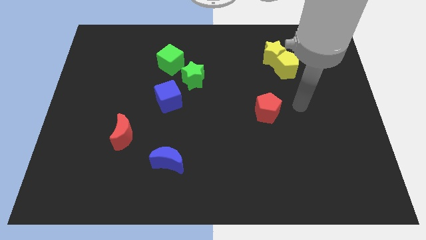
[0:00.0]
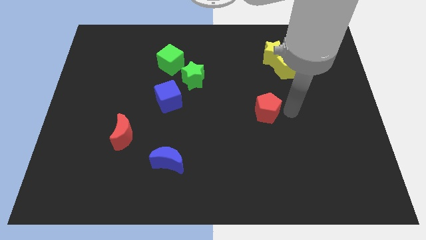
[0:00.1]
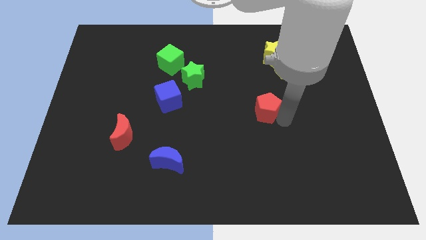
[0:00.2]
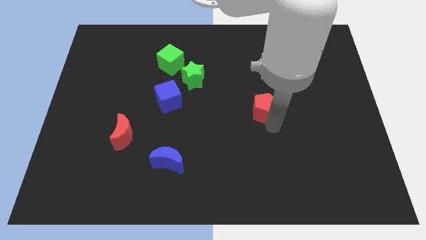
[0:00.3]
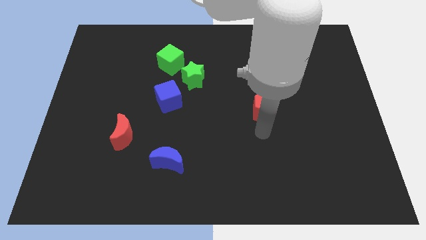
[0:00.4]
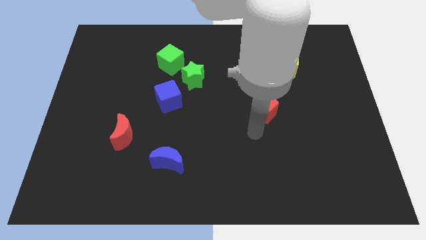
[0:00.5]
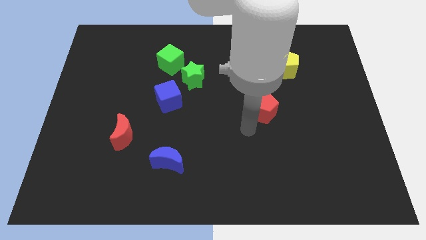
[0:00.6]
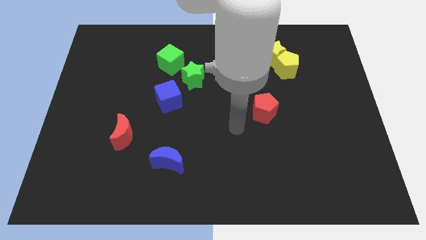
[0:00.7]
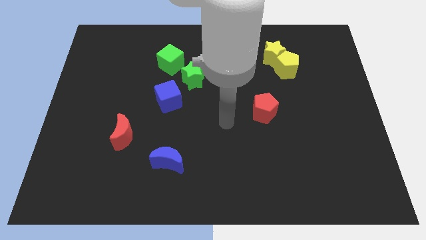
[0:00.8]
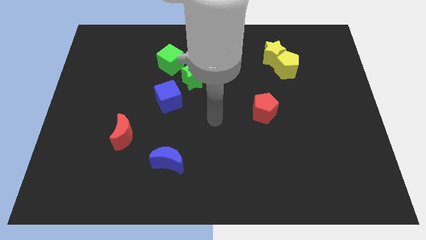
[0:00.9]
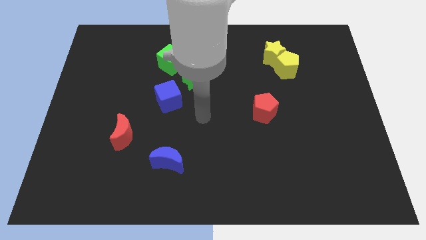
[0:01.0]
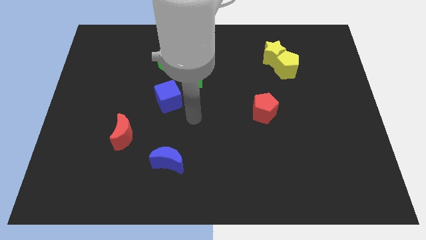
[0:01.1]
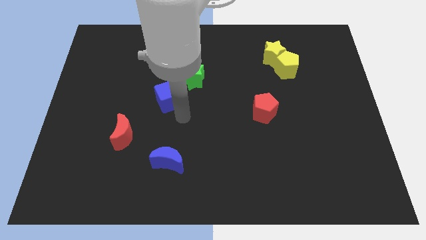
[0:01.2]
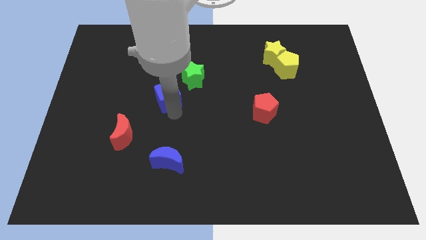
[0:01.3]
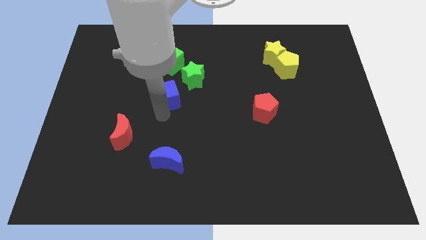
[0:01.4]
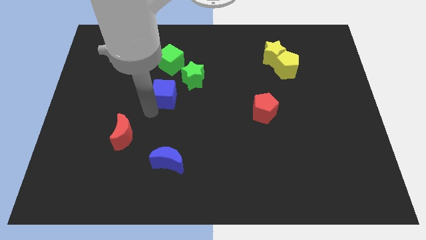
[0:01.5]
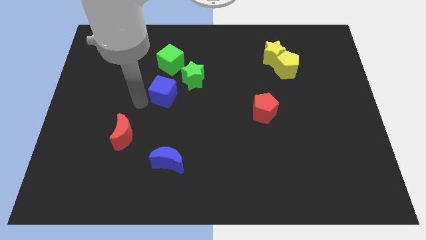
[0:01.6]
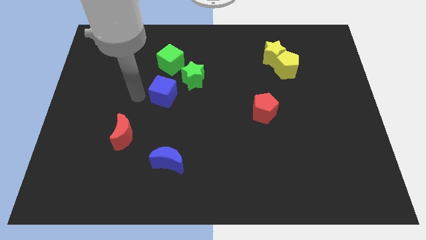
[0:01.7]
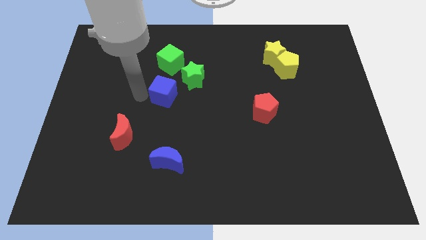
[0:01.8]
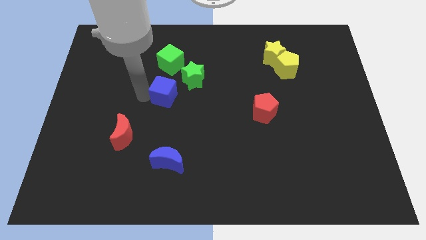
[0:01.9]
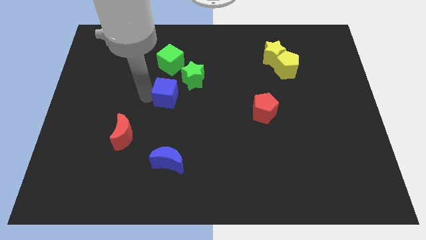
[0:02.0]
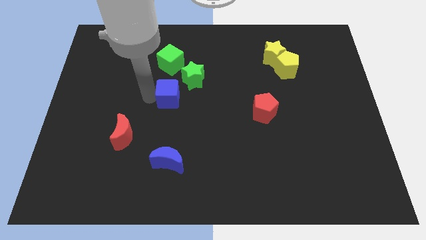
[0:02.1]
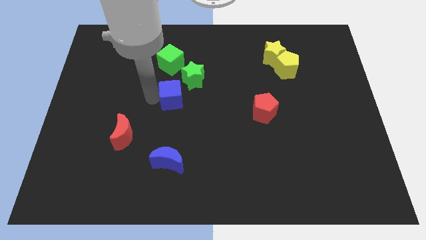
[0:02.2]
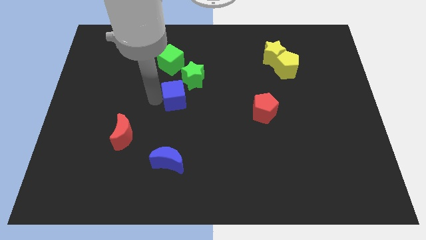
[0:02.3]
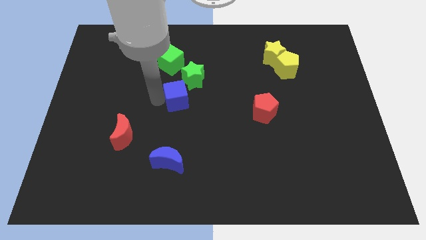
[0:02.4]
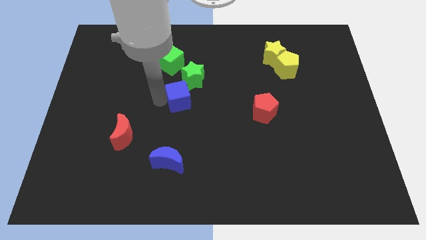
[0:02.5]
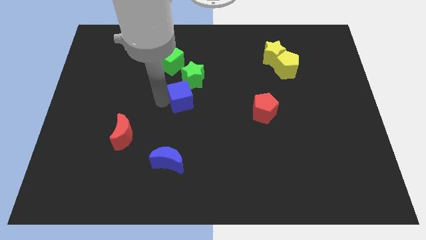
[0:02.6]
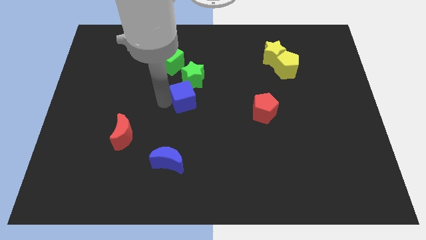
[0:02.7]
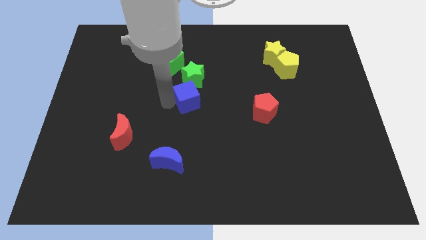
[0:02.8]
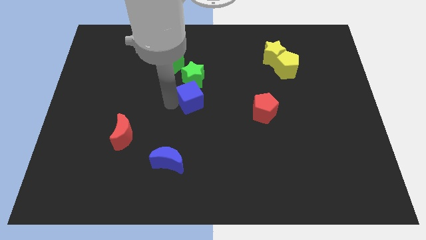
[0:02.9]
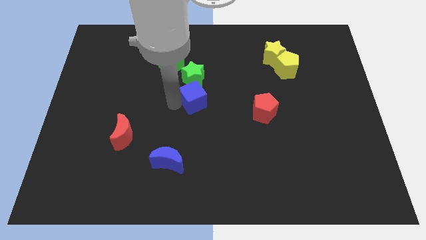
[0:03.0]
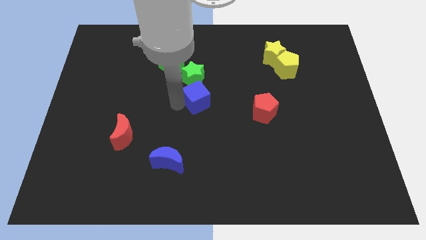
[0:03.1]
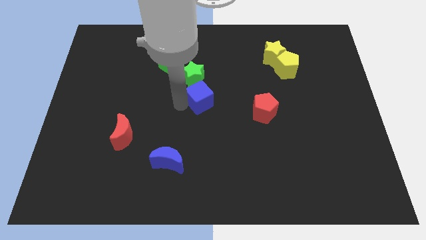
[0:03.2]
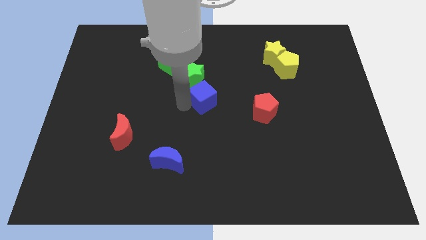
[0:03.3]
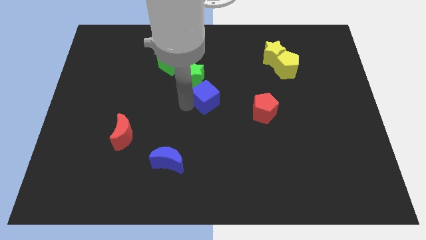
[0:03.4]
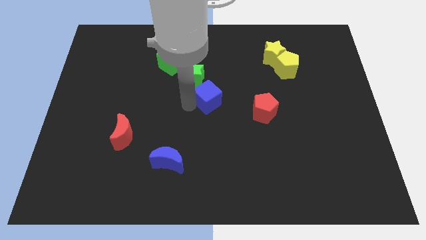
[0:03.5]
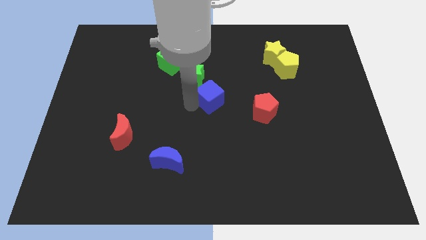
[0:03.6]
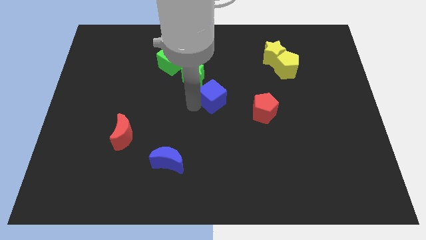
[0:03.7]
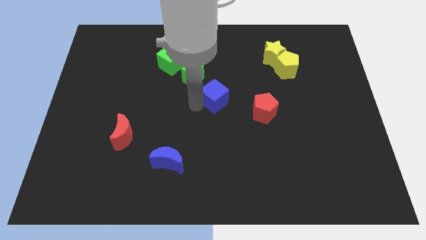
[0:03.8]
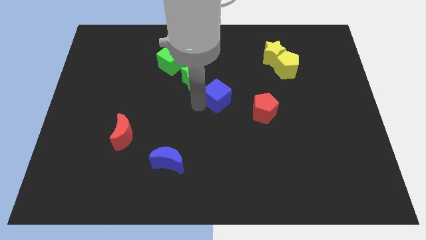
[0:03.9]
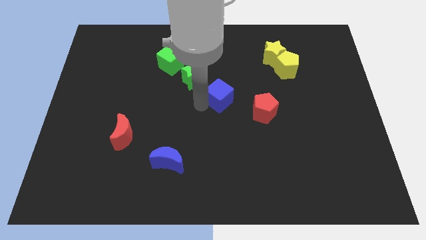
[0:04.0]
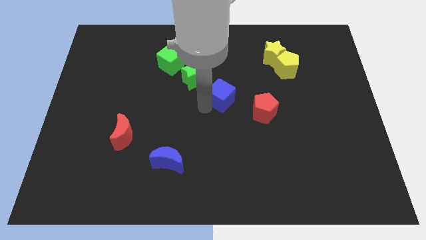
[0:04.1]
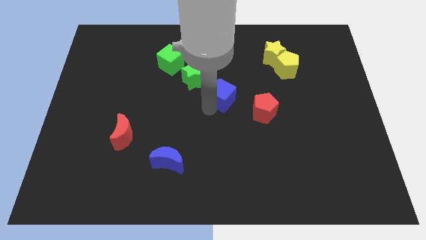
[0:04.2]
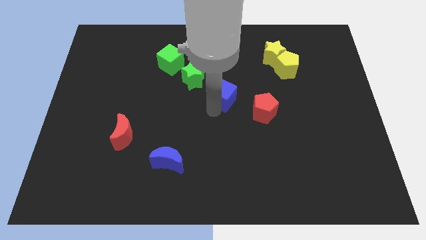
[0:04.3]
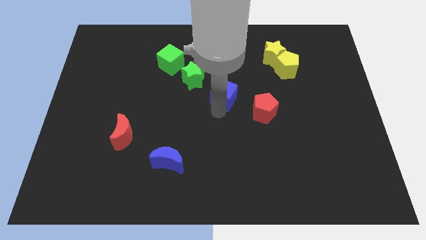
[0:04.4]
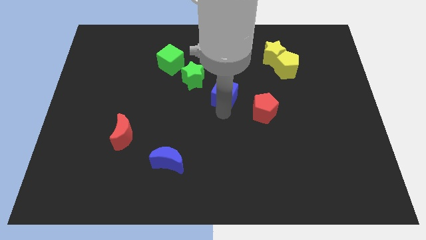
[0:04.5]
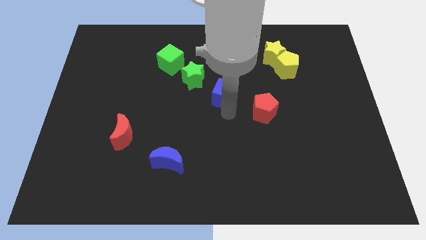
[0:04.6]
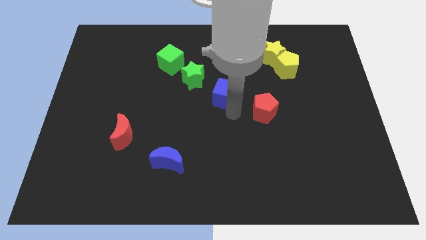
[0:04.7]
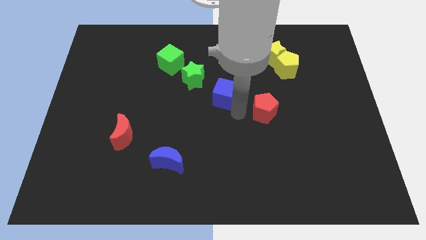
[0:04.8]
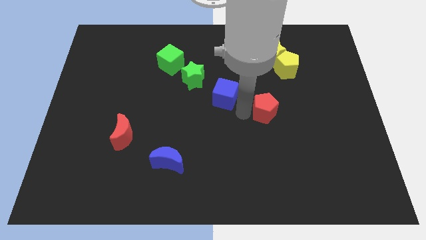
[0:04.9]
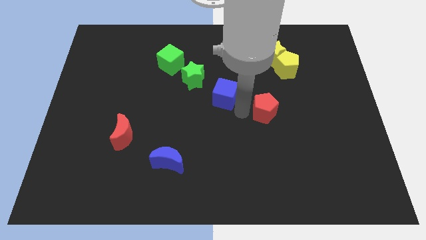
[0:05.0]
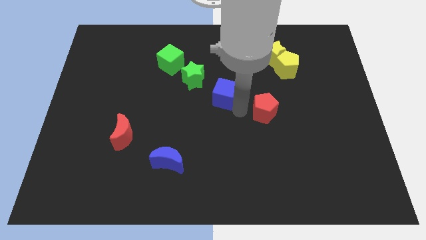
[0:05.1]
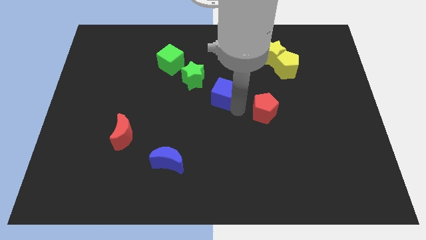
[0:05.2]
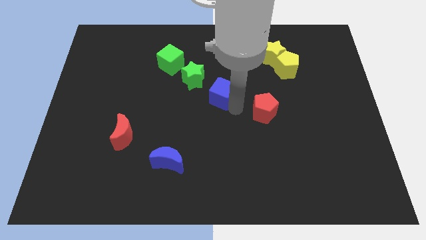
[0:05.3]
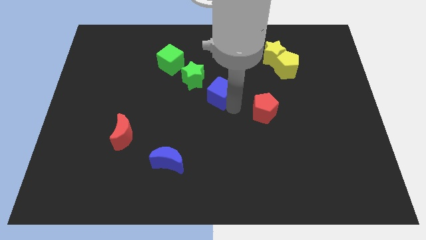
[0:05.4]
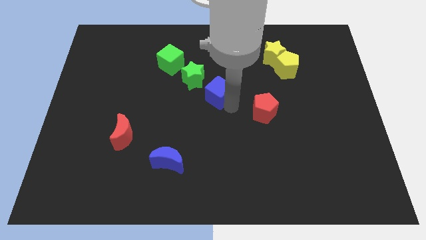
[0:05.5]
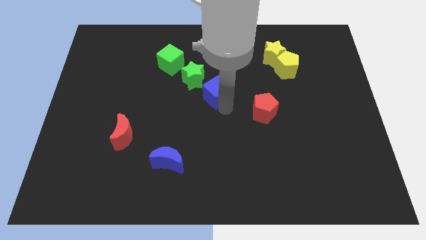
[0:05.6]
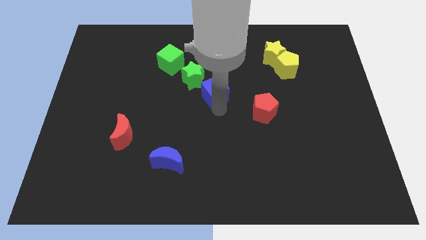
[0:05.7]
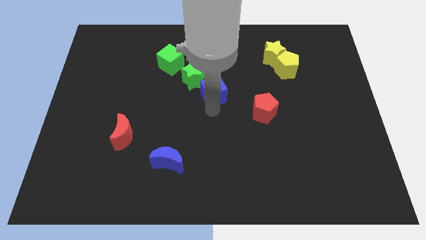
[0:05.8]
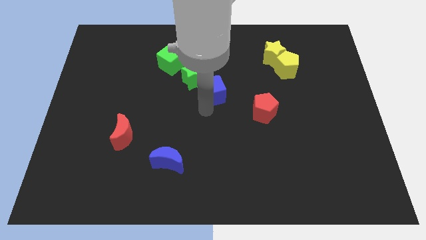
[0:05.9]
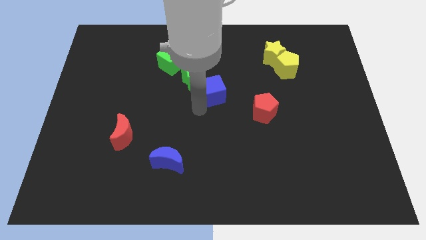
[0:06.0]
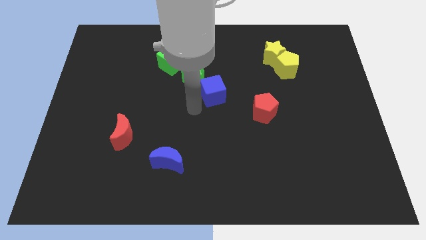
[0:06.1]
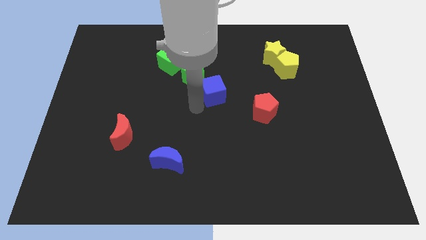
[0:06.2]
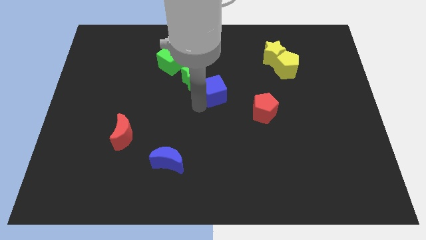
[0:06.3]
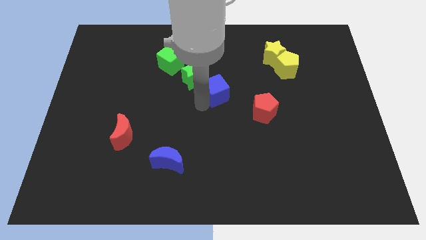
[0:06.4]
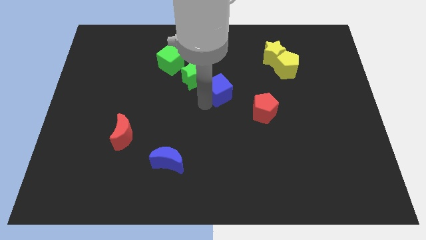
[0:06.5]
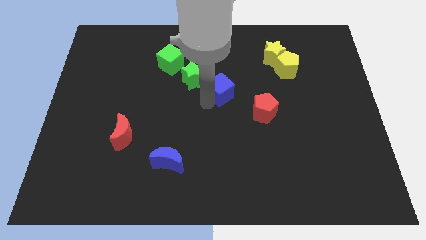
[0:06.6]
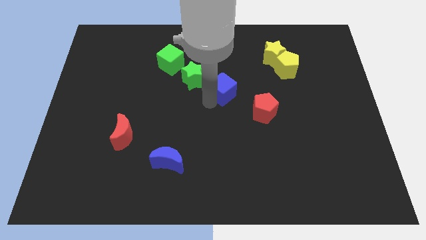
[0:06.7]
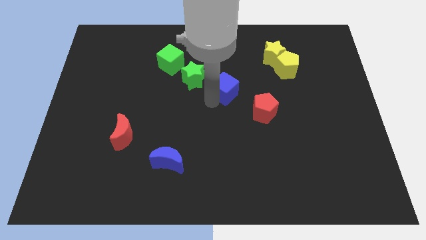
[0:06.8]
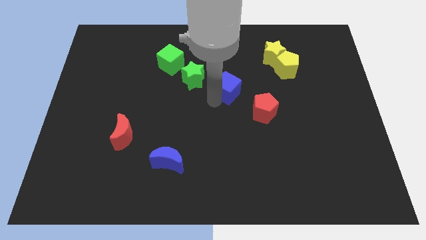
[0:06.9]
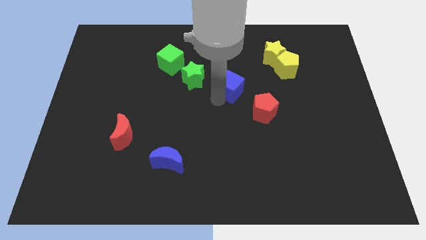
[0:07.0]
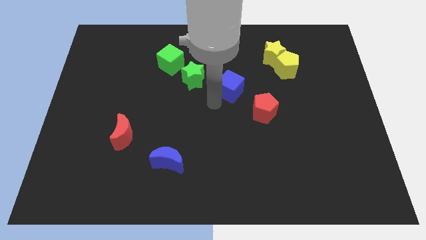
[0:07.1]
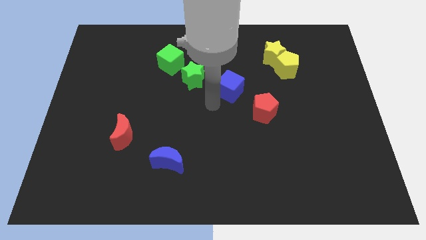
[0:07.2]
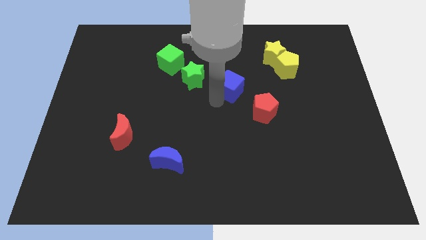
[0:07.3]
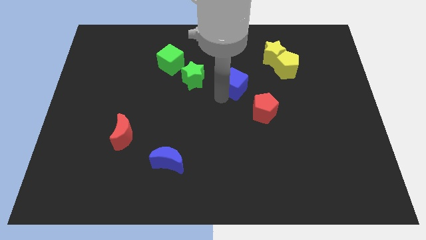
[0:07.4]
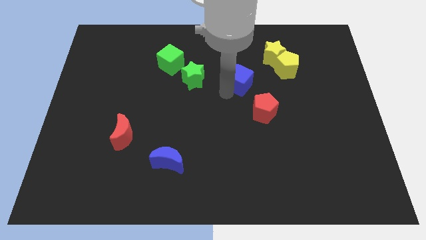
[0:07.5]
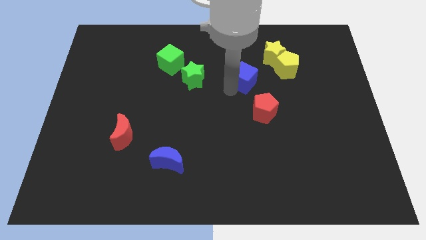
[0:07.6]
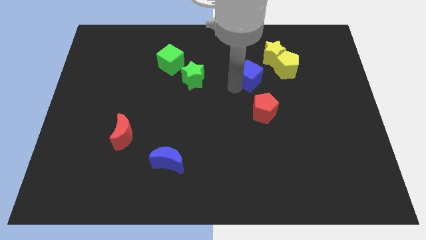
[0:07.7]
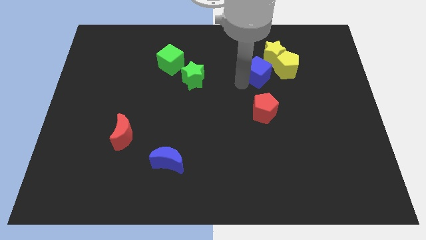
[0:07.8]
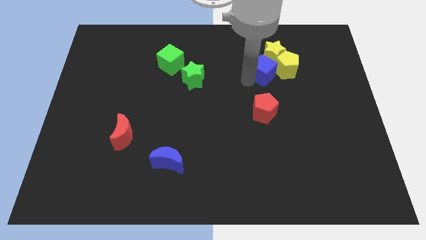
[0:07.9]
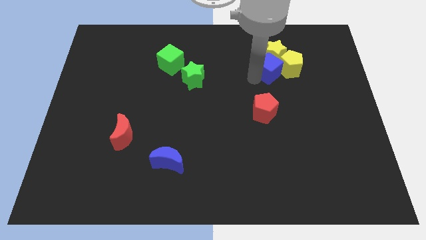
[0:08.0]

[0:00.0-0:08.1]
slide the blue cube close to the yellow star

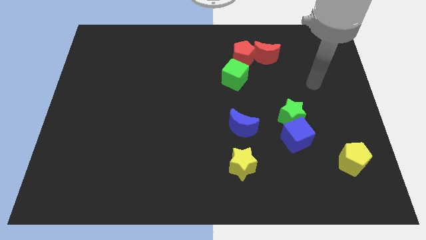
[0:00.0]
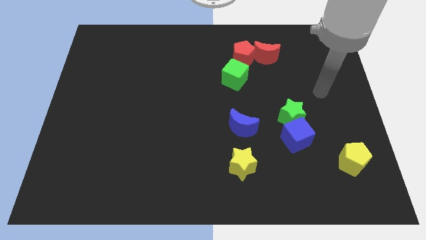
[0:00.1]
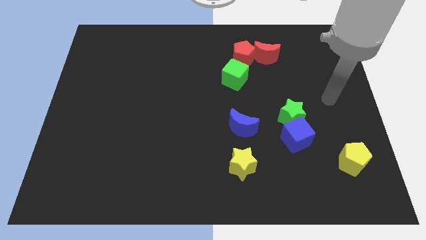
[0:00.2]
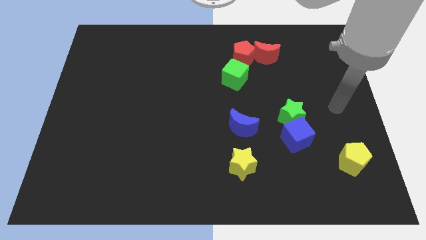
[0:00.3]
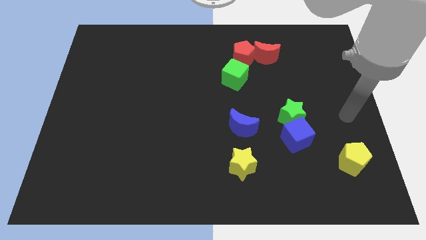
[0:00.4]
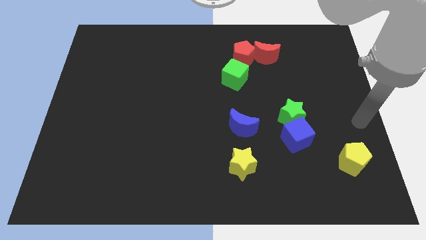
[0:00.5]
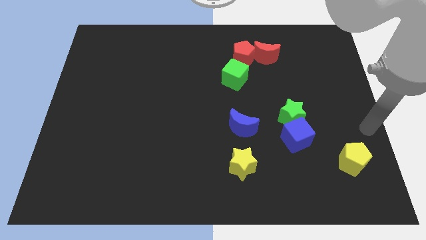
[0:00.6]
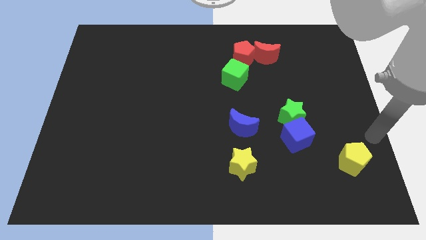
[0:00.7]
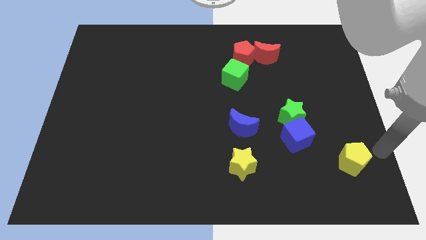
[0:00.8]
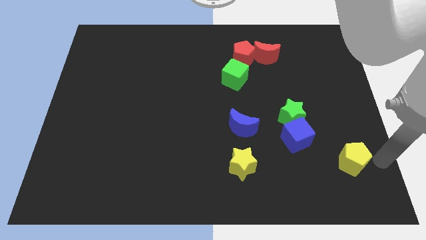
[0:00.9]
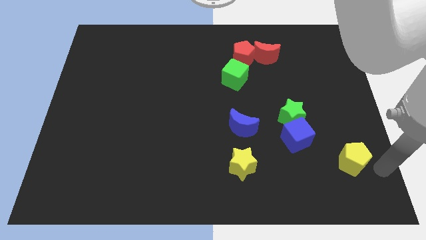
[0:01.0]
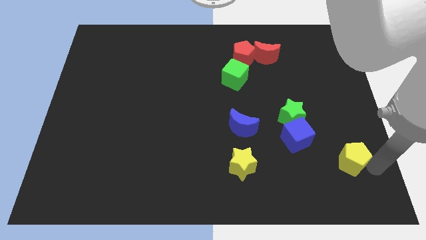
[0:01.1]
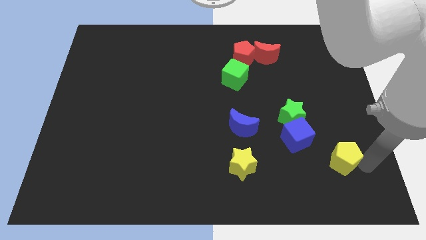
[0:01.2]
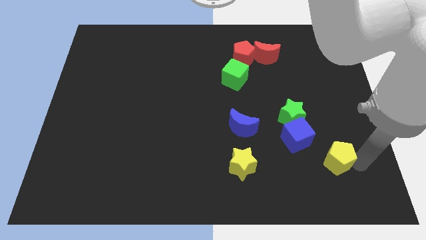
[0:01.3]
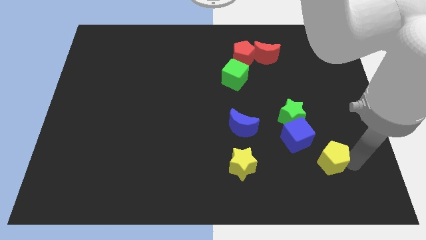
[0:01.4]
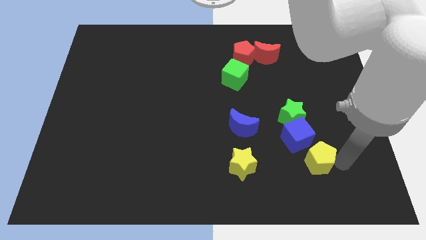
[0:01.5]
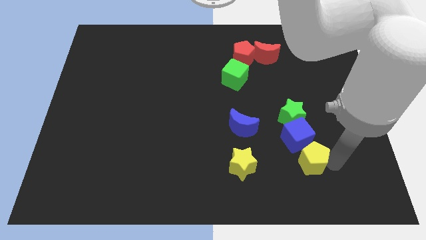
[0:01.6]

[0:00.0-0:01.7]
move the yellow pentagon to the blue cube
